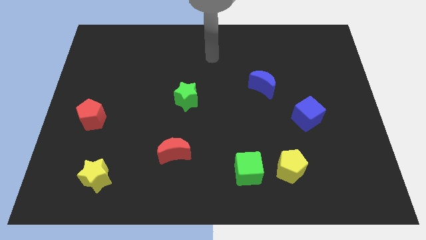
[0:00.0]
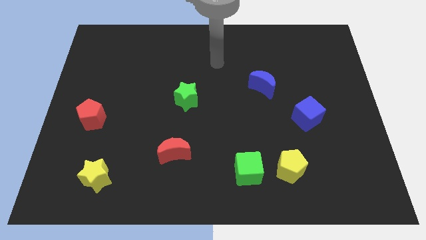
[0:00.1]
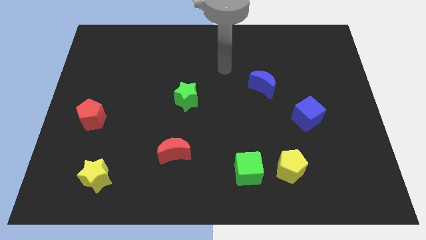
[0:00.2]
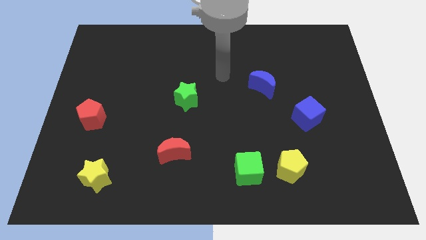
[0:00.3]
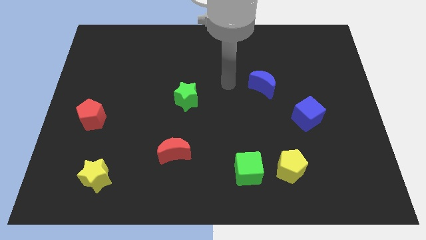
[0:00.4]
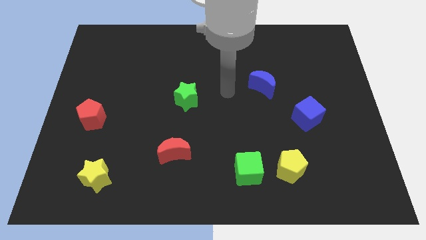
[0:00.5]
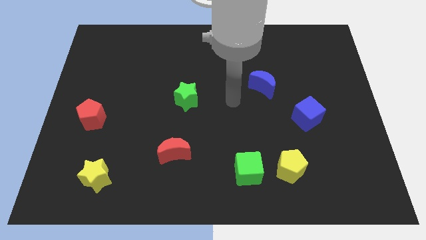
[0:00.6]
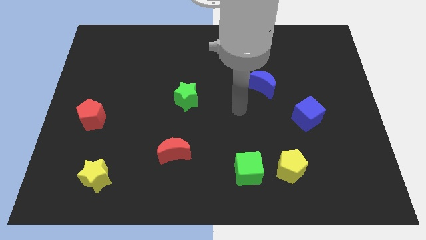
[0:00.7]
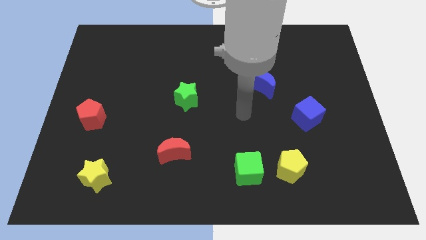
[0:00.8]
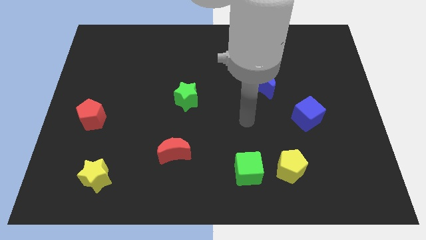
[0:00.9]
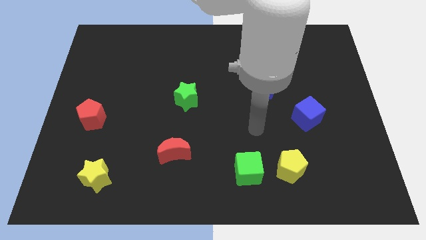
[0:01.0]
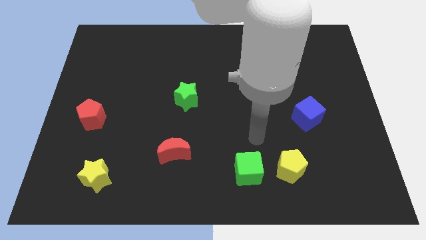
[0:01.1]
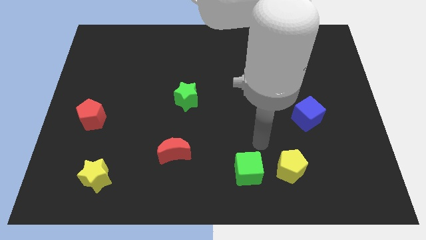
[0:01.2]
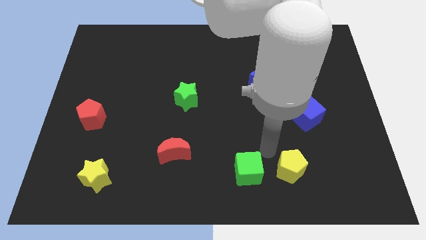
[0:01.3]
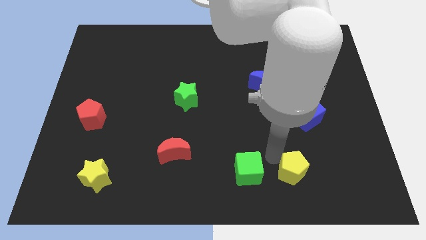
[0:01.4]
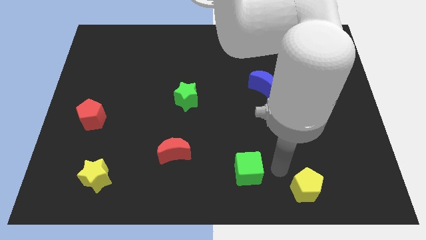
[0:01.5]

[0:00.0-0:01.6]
separate the green cube from the yellow pentagon

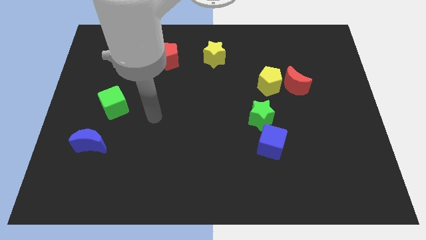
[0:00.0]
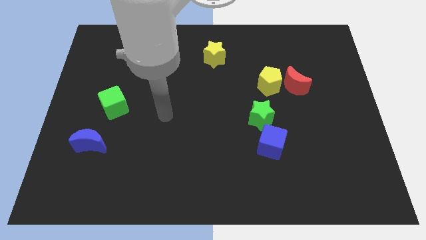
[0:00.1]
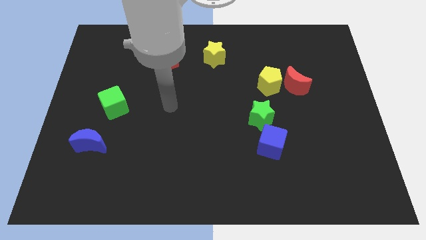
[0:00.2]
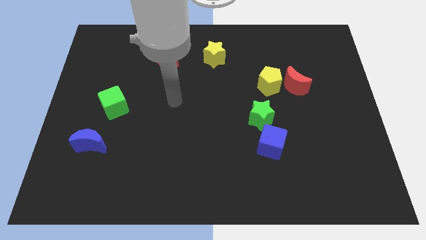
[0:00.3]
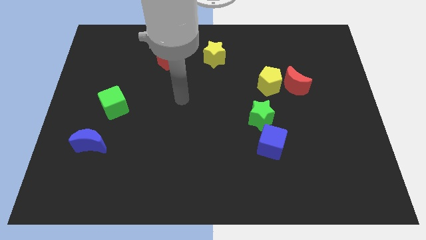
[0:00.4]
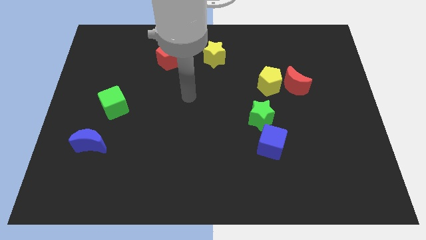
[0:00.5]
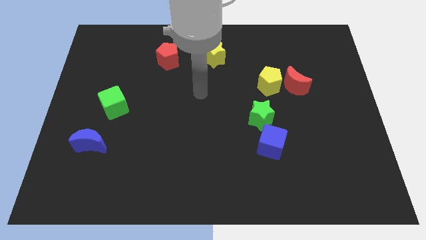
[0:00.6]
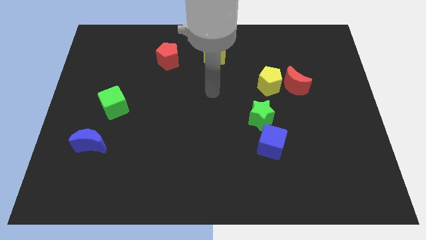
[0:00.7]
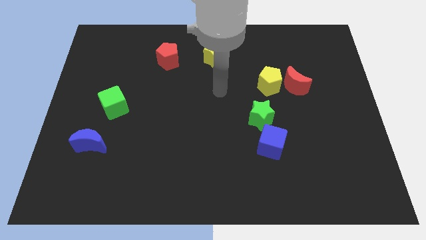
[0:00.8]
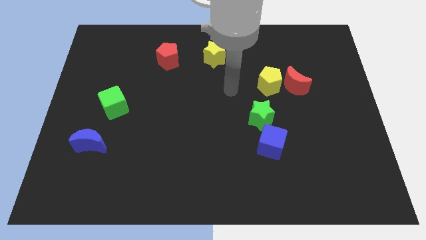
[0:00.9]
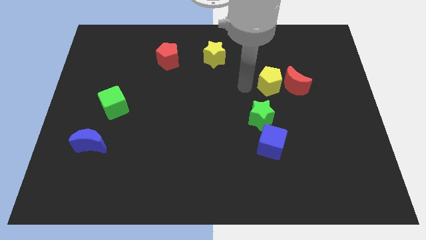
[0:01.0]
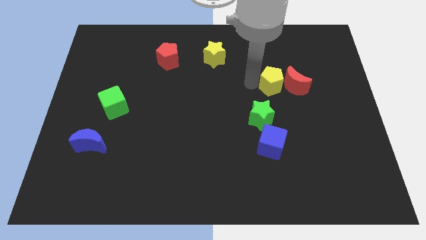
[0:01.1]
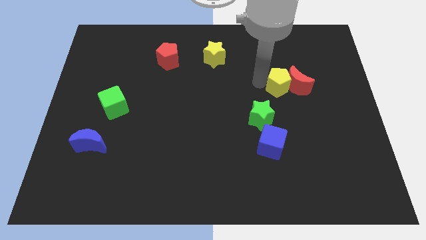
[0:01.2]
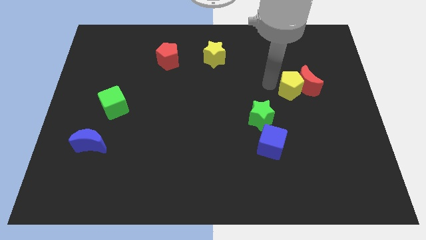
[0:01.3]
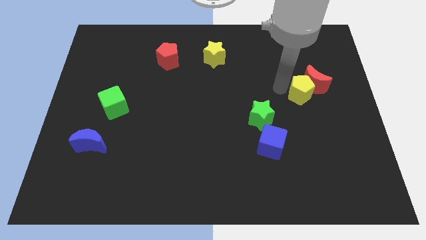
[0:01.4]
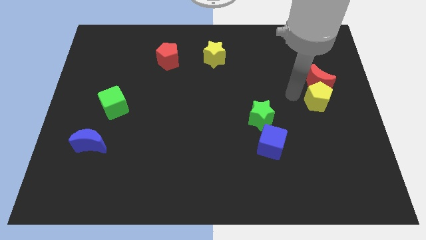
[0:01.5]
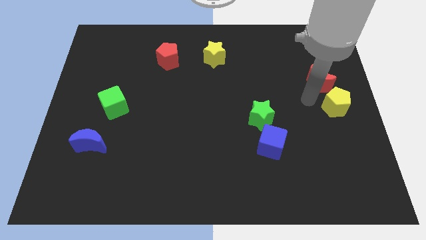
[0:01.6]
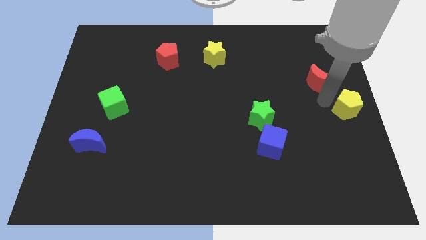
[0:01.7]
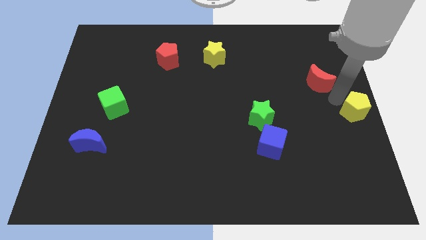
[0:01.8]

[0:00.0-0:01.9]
move the red moon away from the yellow pentagon

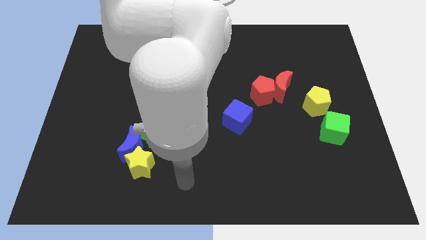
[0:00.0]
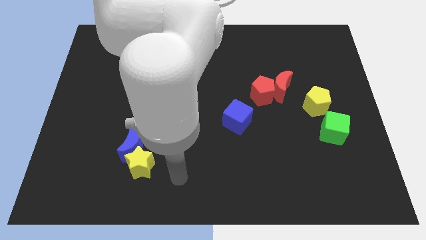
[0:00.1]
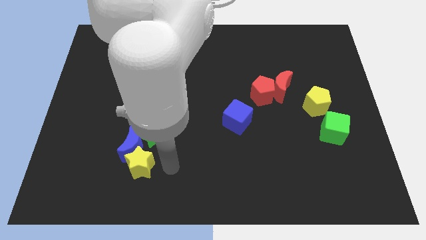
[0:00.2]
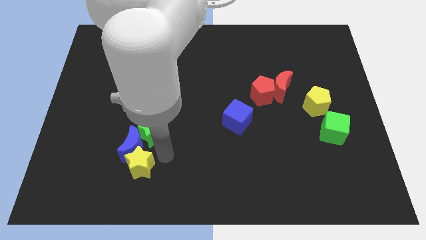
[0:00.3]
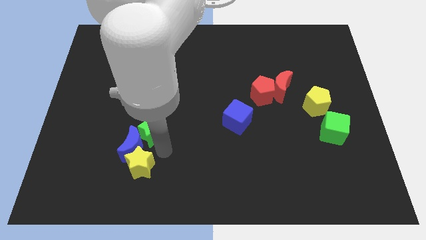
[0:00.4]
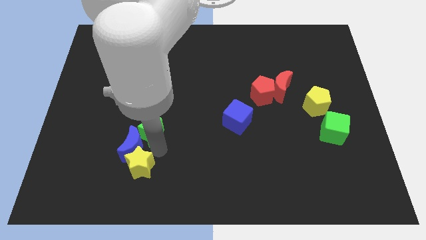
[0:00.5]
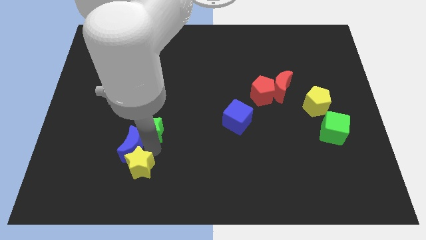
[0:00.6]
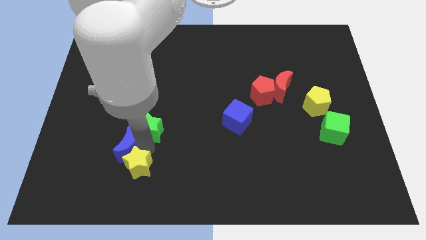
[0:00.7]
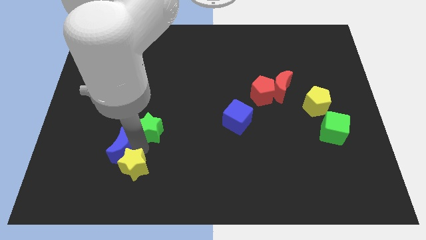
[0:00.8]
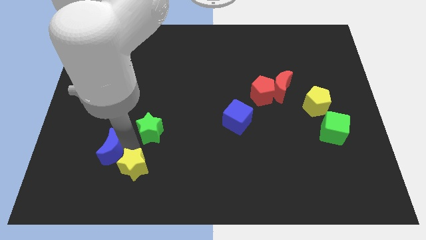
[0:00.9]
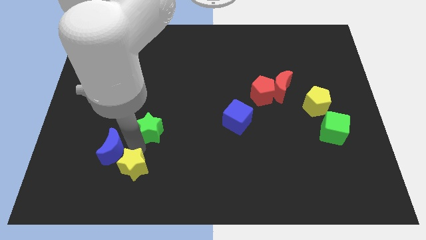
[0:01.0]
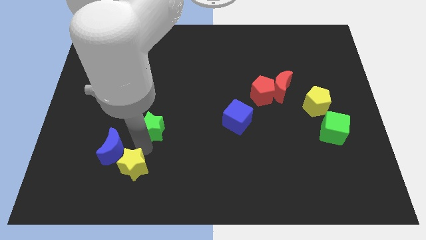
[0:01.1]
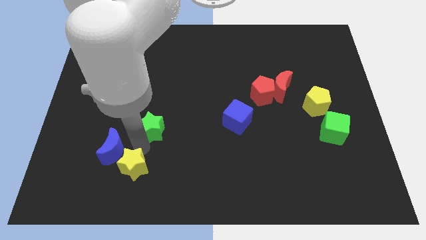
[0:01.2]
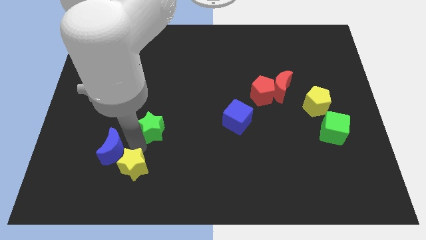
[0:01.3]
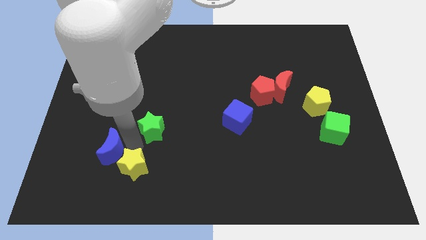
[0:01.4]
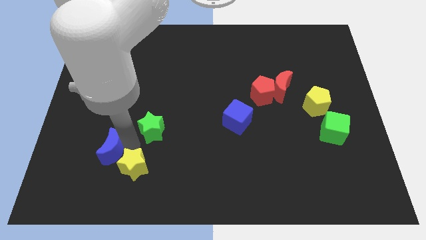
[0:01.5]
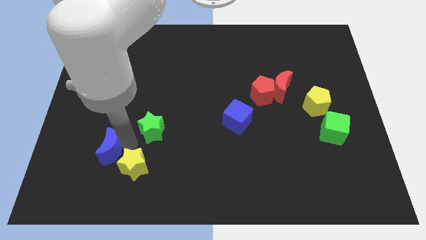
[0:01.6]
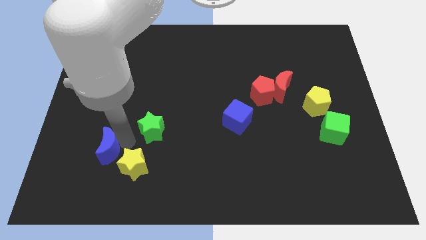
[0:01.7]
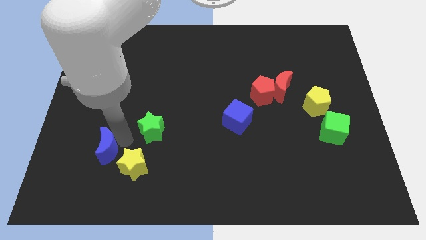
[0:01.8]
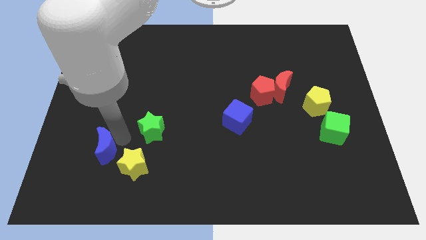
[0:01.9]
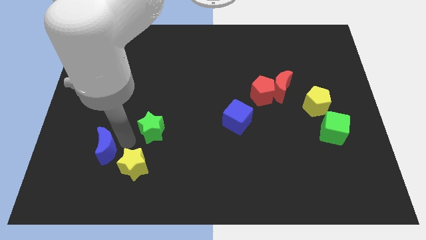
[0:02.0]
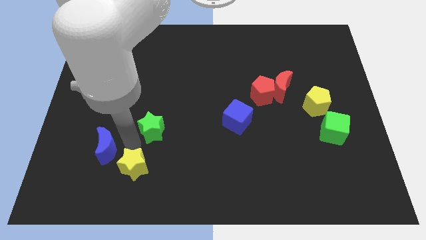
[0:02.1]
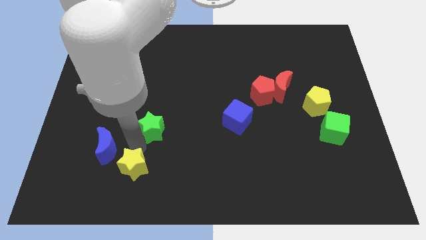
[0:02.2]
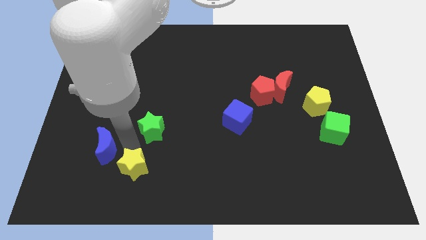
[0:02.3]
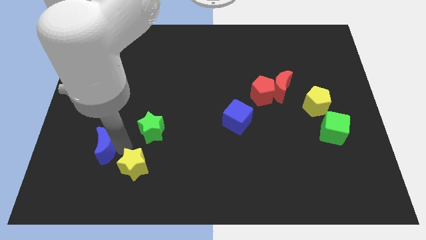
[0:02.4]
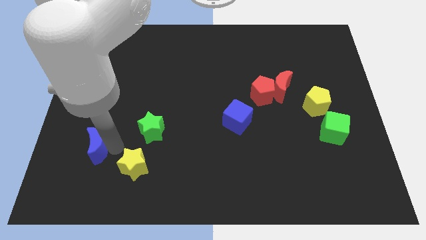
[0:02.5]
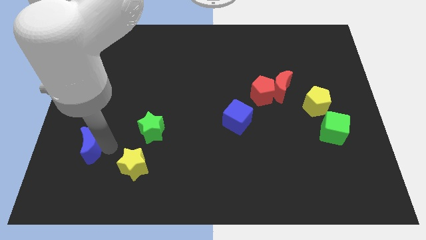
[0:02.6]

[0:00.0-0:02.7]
move the blue moon away from the yellow star and green star

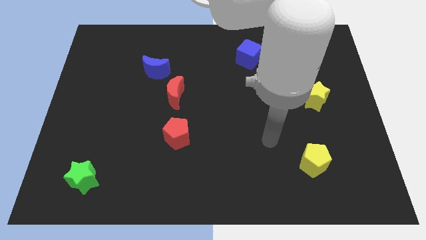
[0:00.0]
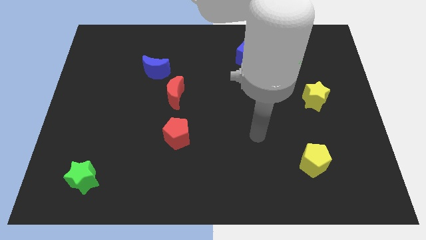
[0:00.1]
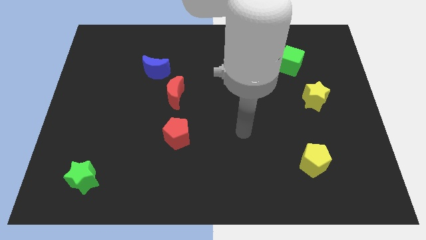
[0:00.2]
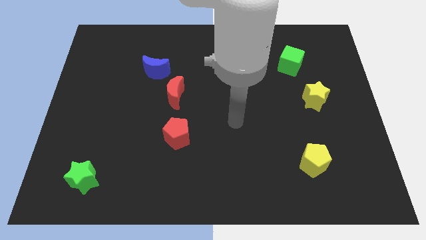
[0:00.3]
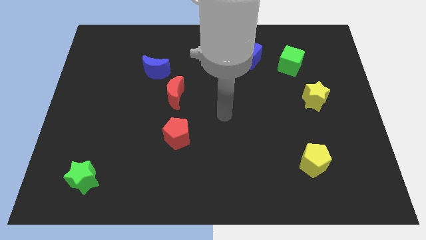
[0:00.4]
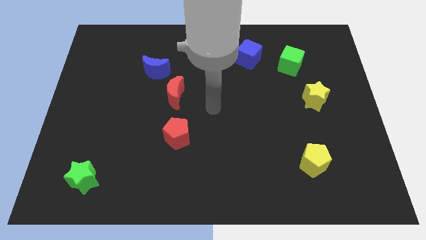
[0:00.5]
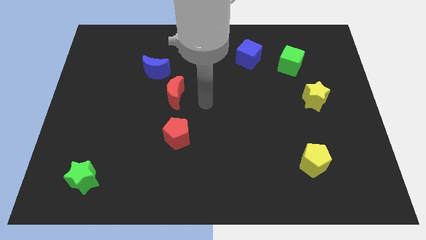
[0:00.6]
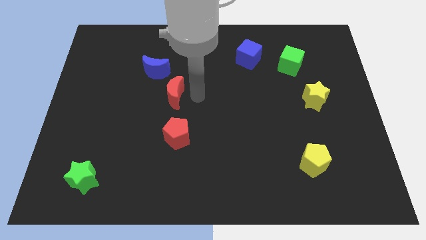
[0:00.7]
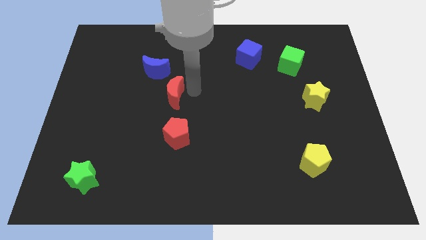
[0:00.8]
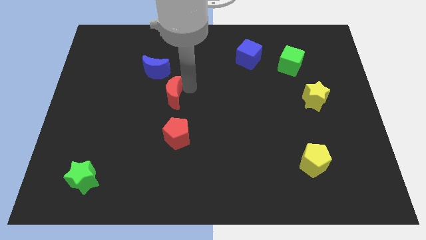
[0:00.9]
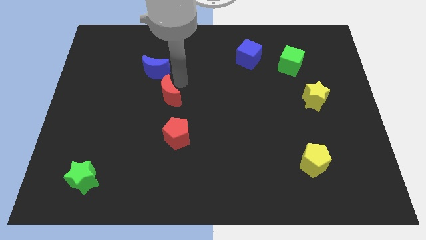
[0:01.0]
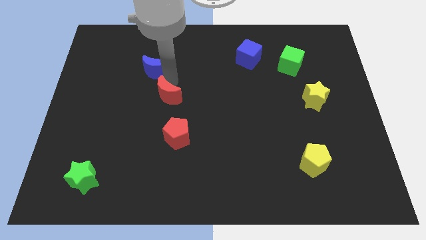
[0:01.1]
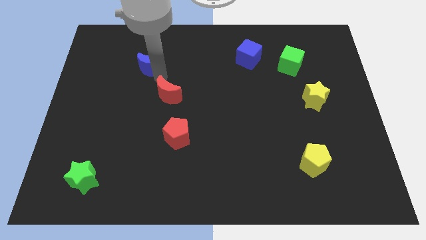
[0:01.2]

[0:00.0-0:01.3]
separate the red moon from the blue moon

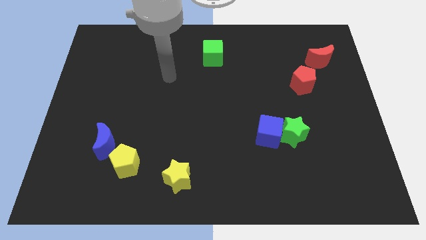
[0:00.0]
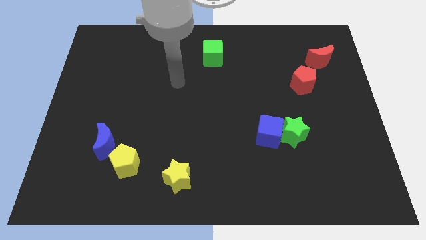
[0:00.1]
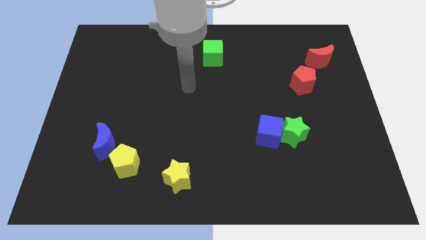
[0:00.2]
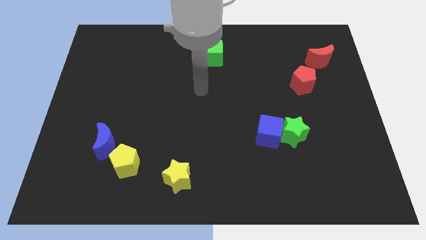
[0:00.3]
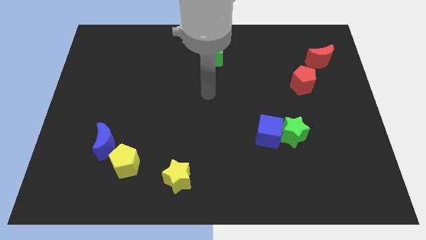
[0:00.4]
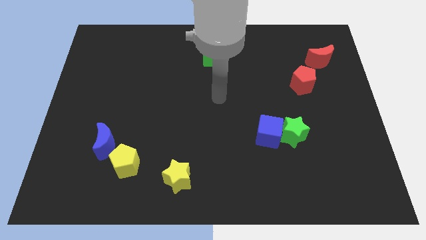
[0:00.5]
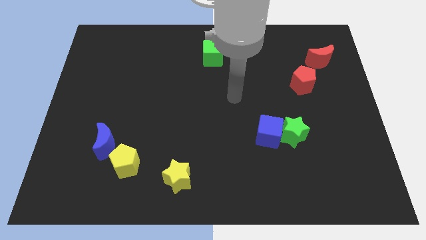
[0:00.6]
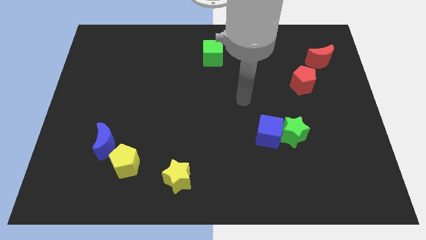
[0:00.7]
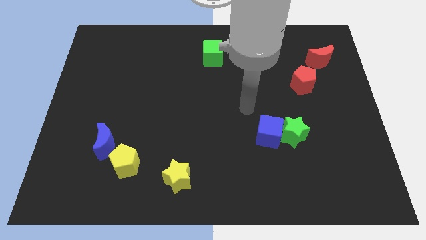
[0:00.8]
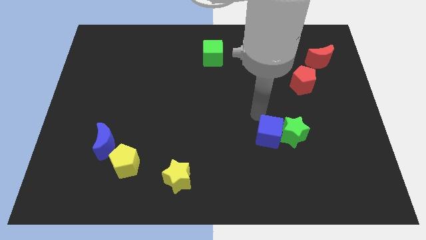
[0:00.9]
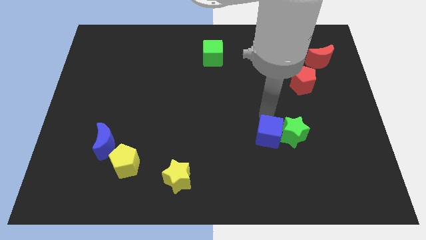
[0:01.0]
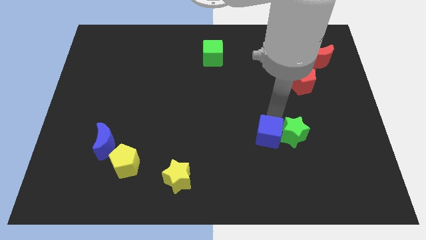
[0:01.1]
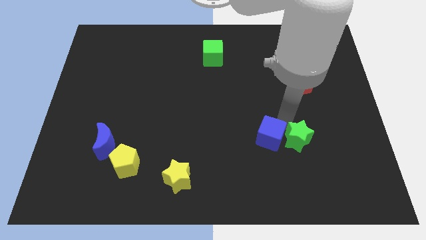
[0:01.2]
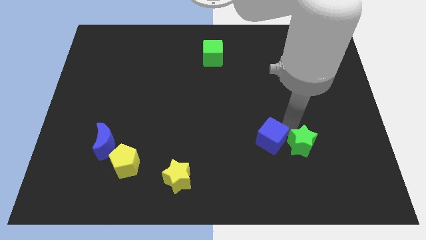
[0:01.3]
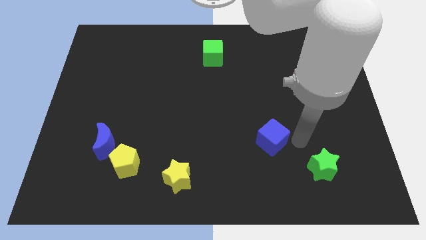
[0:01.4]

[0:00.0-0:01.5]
move the blue cube away from the green star
